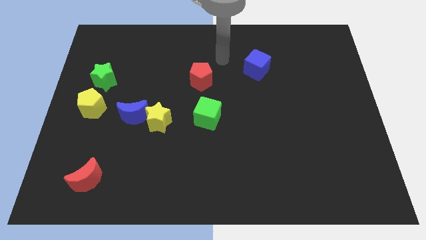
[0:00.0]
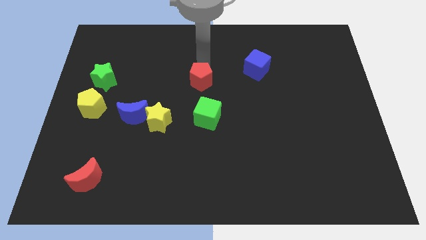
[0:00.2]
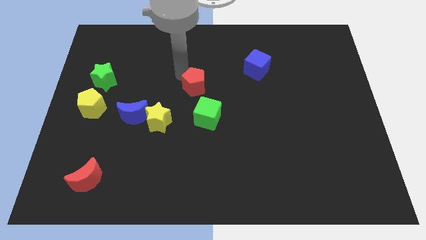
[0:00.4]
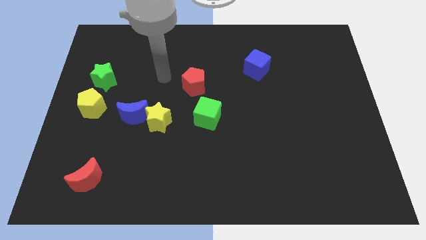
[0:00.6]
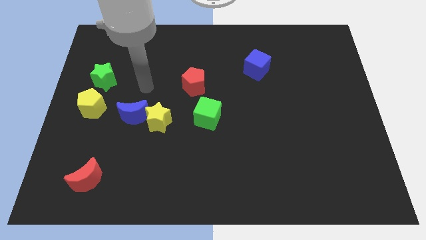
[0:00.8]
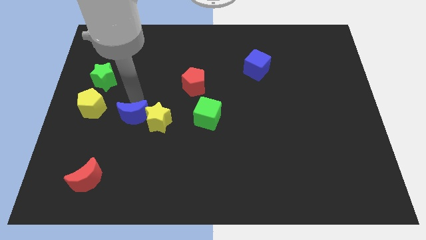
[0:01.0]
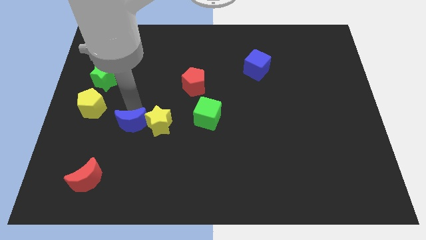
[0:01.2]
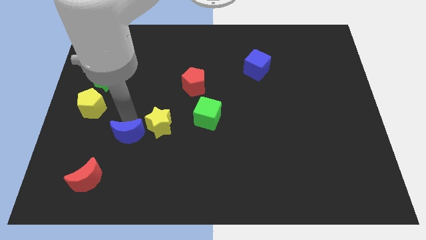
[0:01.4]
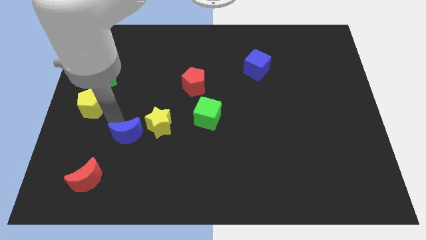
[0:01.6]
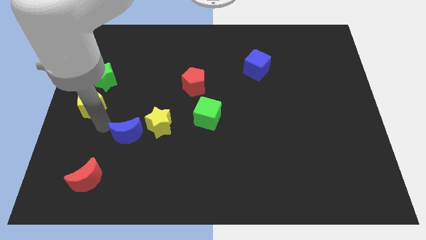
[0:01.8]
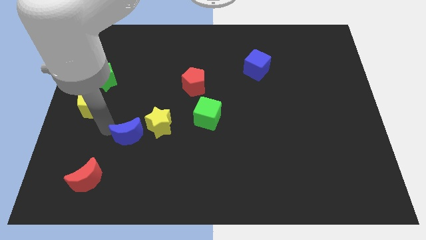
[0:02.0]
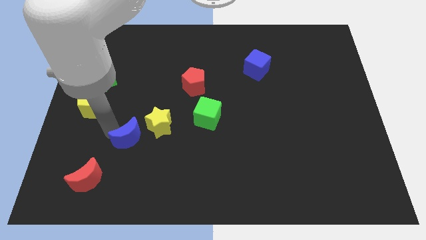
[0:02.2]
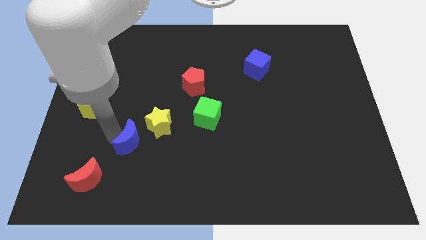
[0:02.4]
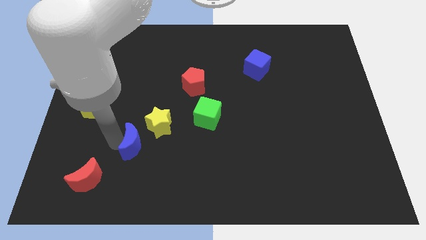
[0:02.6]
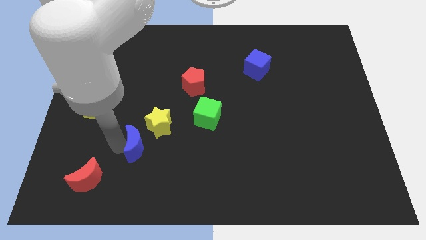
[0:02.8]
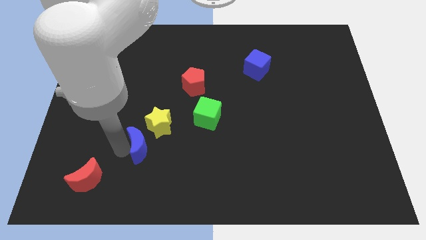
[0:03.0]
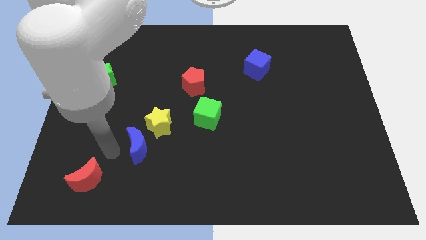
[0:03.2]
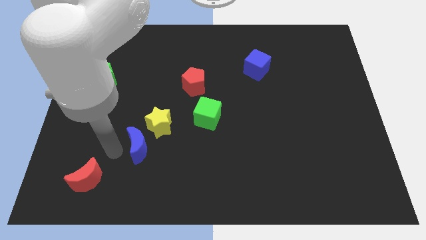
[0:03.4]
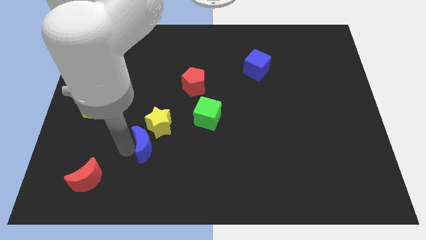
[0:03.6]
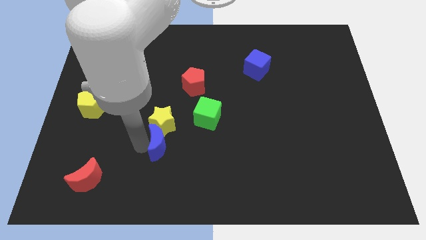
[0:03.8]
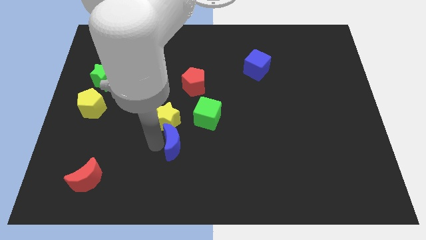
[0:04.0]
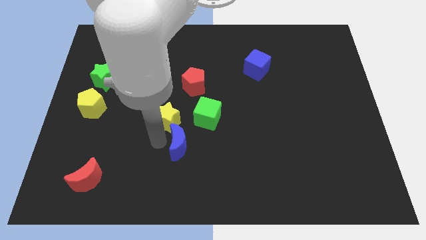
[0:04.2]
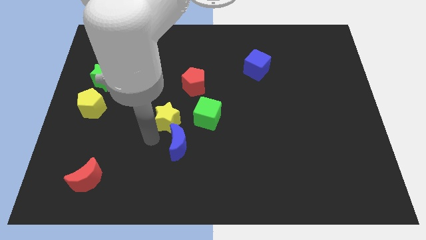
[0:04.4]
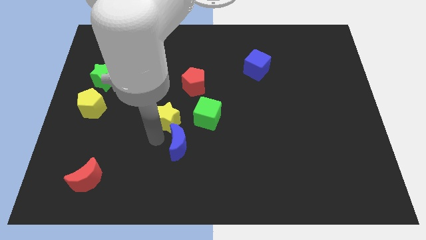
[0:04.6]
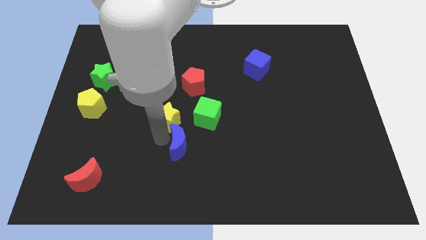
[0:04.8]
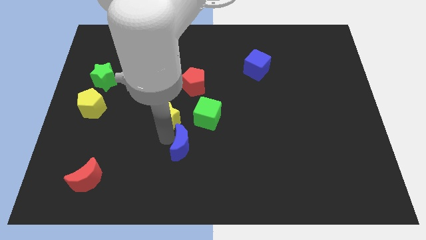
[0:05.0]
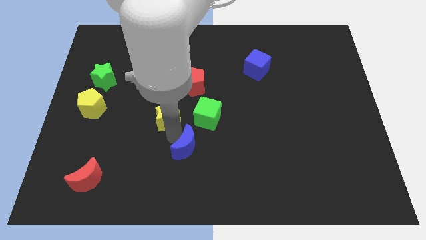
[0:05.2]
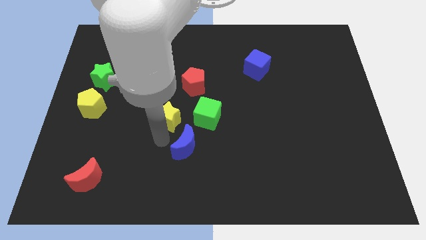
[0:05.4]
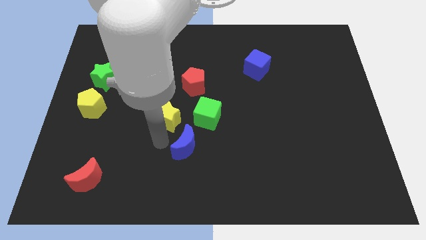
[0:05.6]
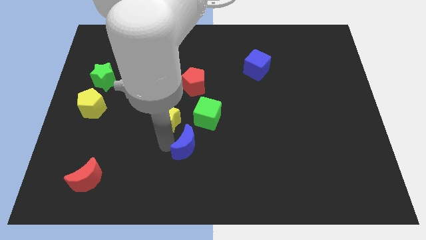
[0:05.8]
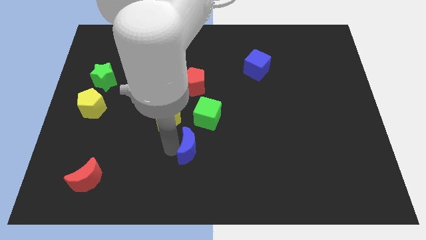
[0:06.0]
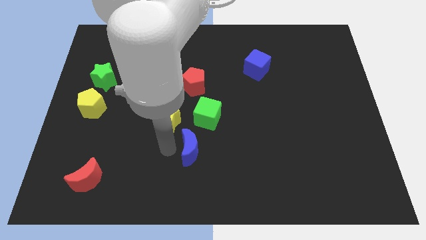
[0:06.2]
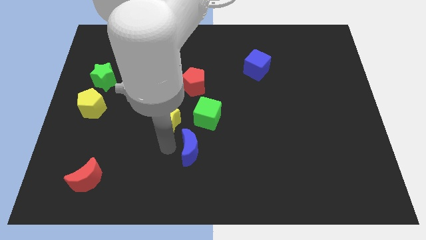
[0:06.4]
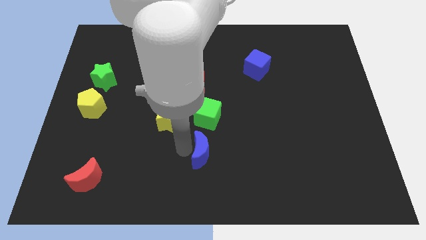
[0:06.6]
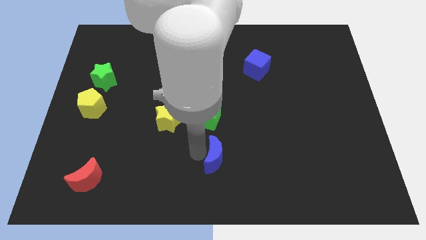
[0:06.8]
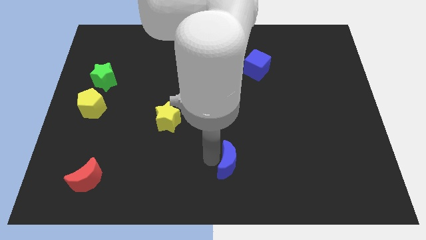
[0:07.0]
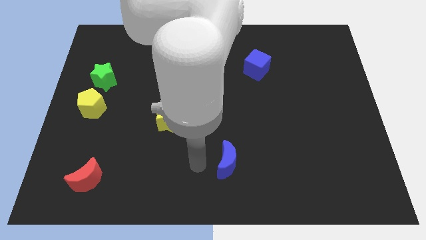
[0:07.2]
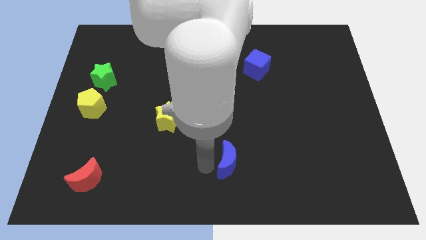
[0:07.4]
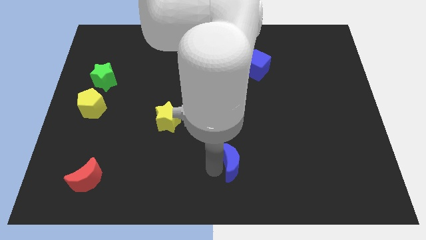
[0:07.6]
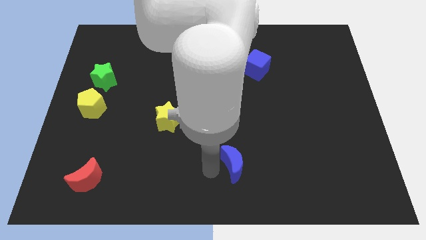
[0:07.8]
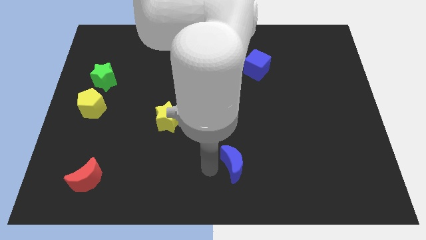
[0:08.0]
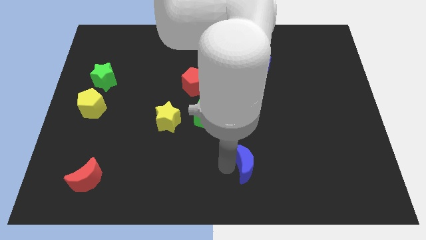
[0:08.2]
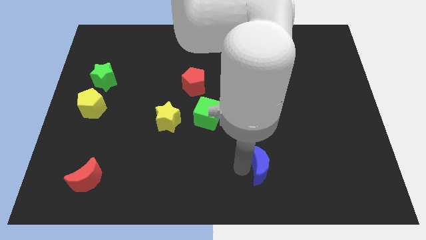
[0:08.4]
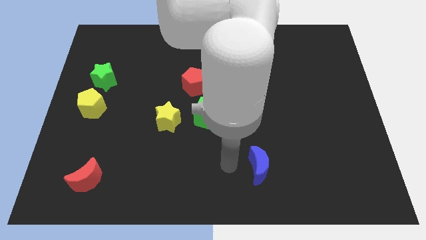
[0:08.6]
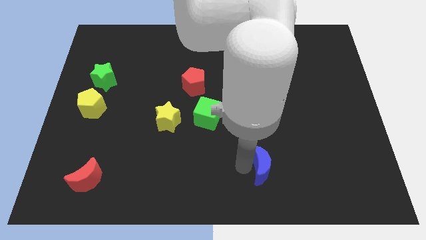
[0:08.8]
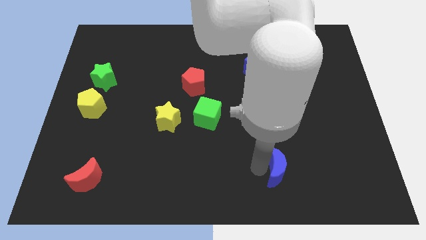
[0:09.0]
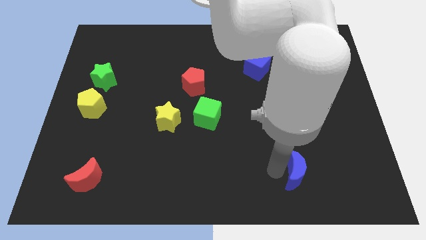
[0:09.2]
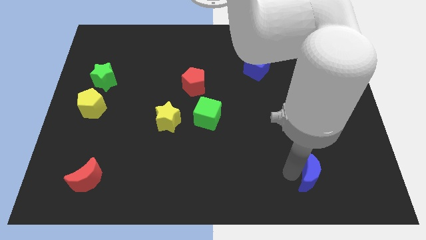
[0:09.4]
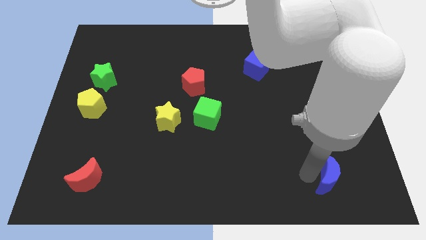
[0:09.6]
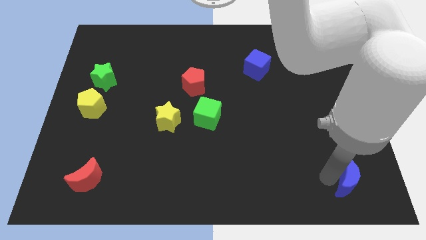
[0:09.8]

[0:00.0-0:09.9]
slide the blue moon to the bottom right

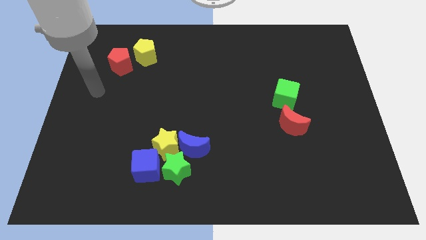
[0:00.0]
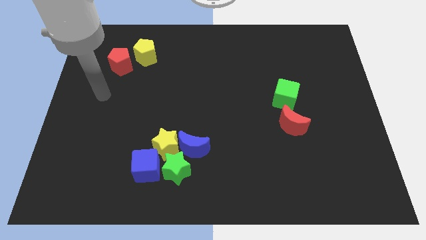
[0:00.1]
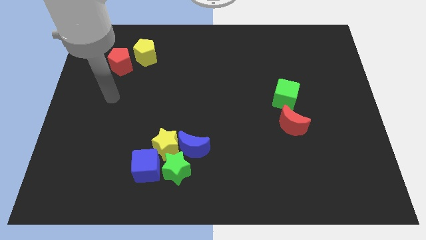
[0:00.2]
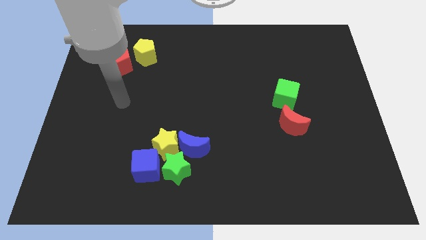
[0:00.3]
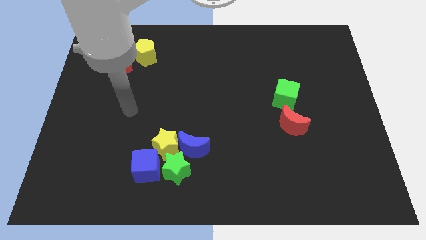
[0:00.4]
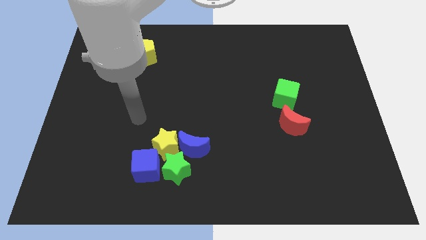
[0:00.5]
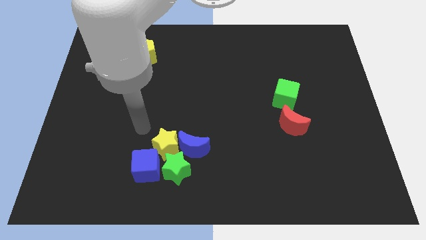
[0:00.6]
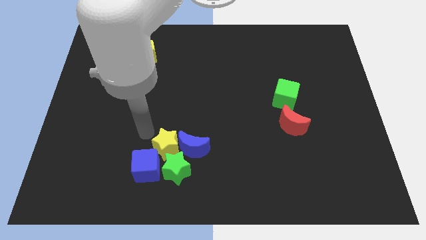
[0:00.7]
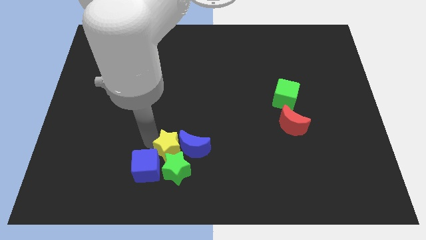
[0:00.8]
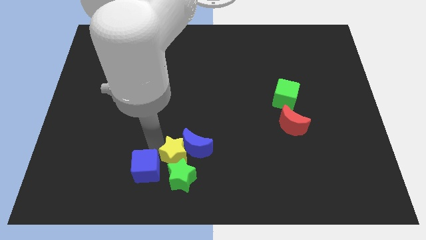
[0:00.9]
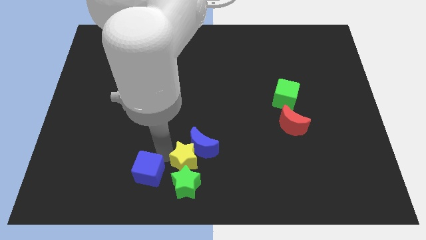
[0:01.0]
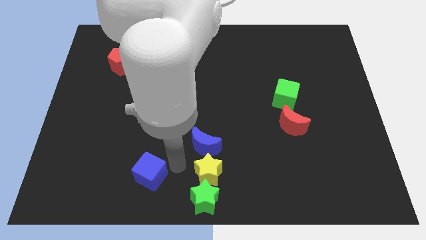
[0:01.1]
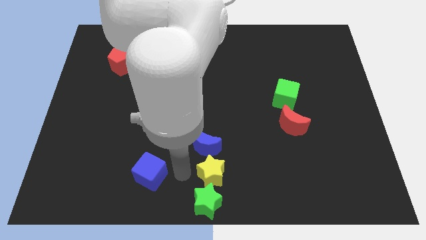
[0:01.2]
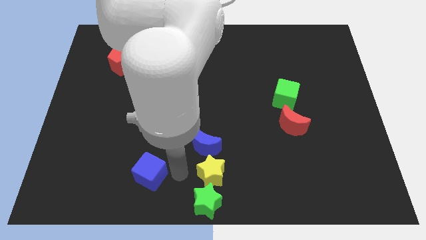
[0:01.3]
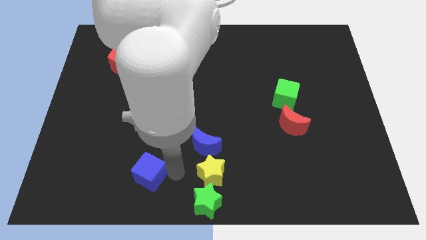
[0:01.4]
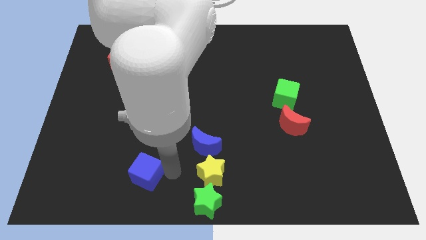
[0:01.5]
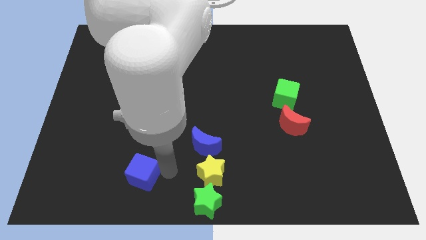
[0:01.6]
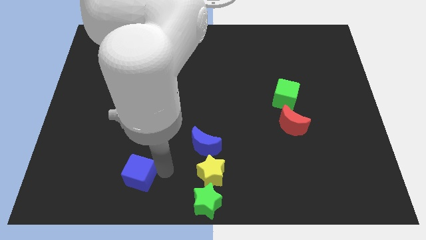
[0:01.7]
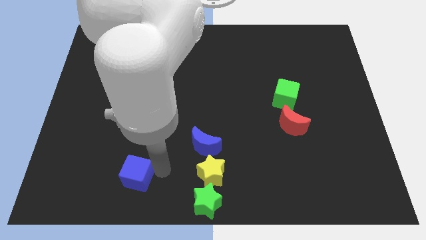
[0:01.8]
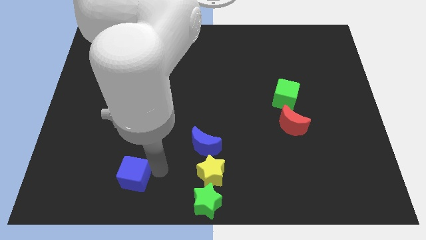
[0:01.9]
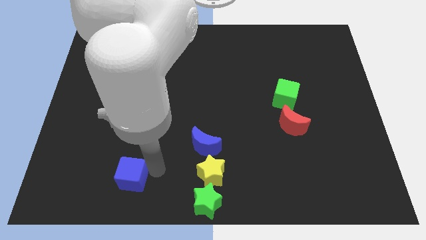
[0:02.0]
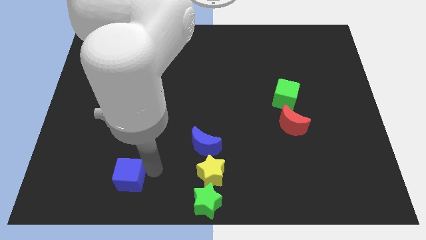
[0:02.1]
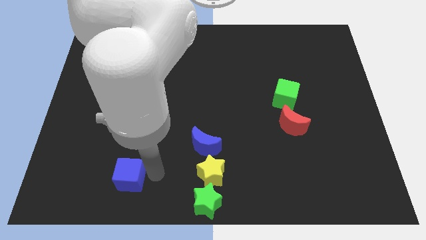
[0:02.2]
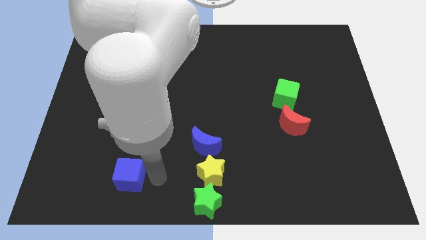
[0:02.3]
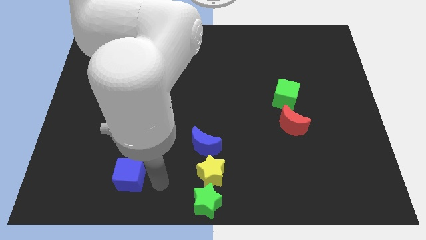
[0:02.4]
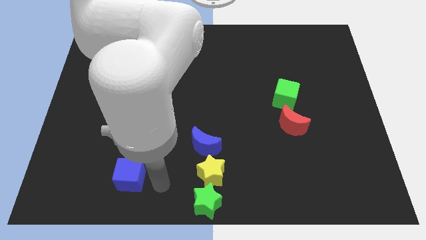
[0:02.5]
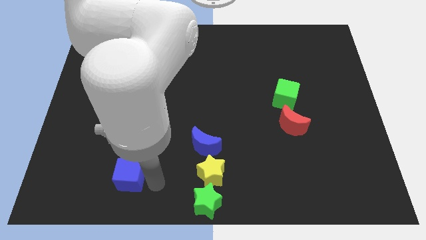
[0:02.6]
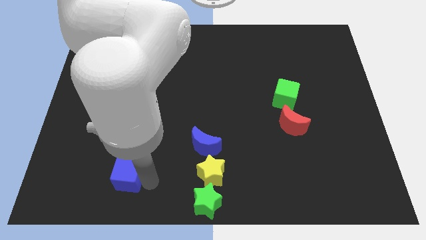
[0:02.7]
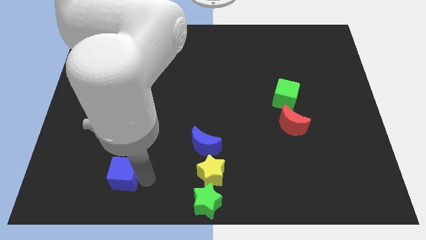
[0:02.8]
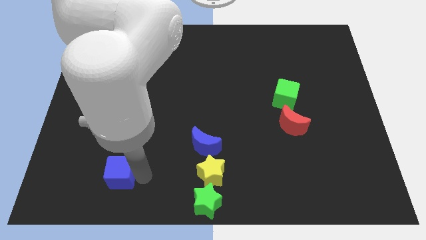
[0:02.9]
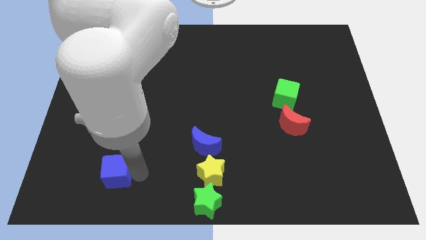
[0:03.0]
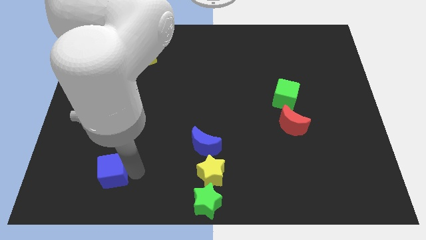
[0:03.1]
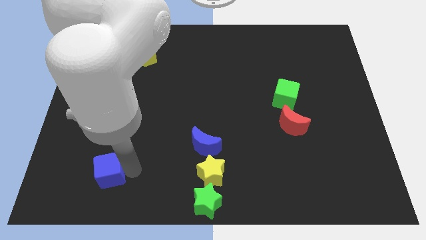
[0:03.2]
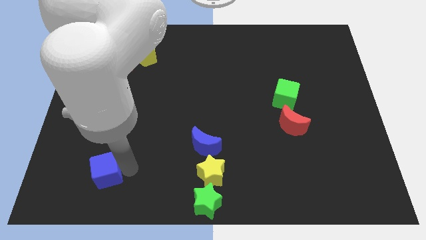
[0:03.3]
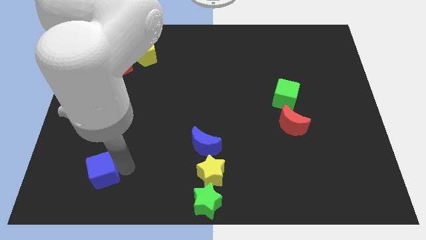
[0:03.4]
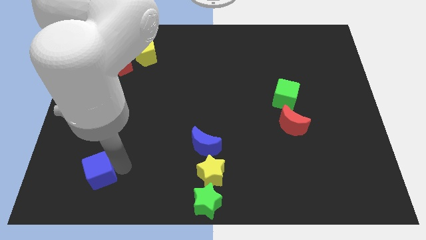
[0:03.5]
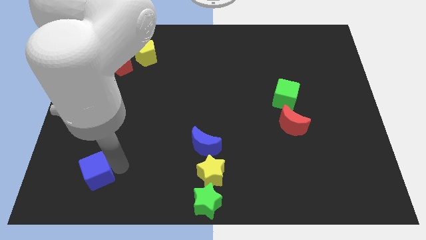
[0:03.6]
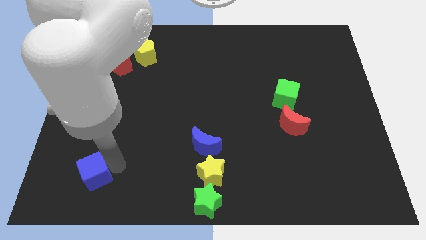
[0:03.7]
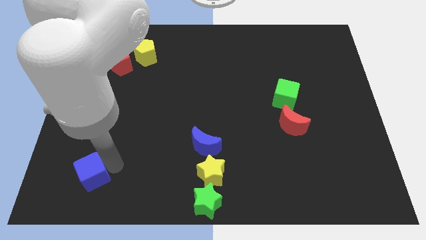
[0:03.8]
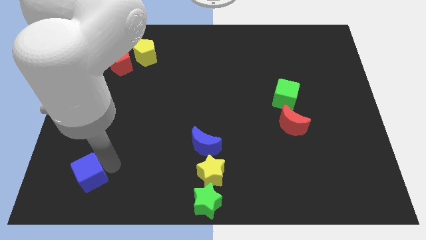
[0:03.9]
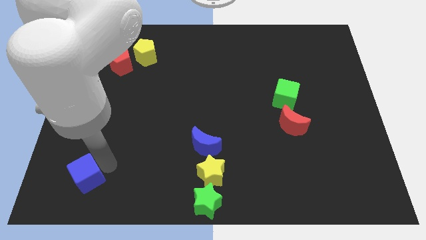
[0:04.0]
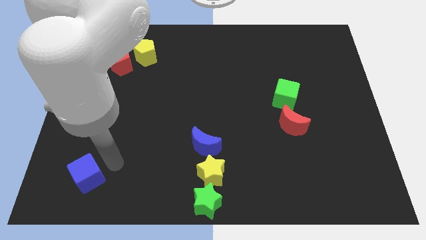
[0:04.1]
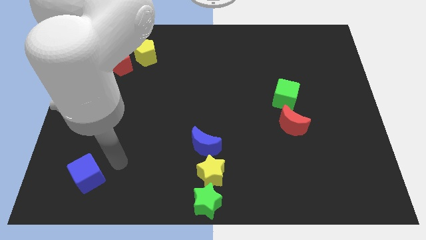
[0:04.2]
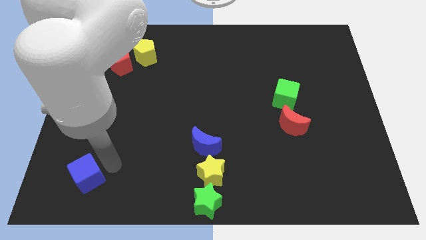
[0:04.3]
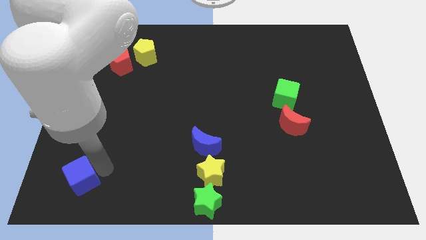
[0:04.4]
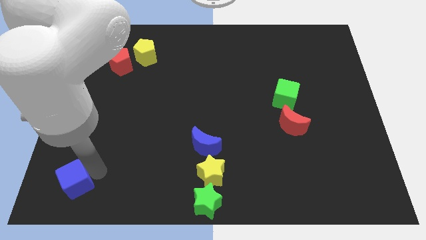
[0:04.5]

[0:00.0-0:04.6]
move the blue cube to the bottom left
